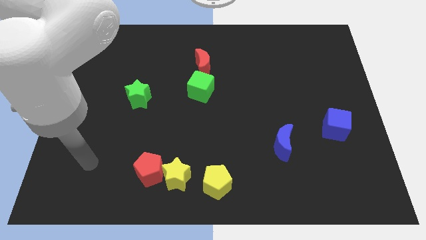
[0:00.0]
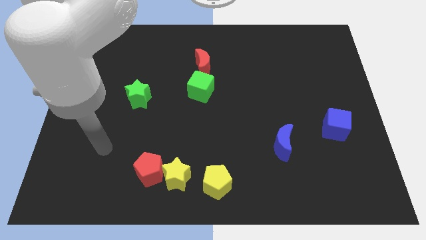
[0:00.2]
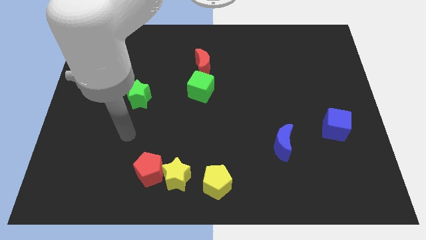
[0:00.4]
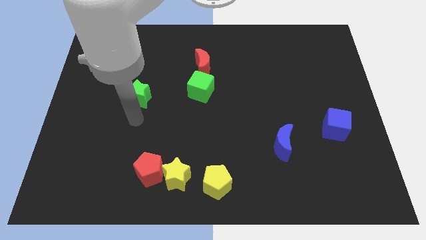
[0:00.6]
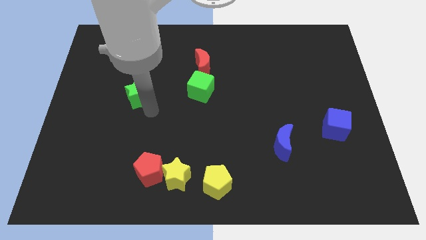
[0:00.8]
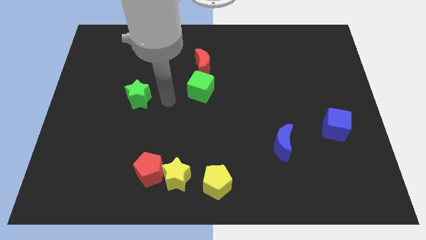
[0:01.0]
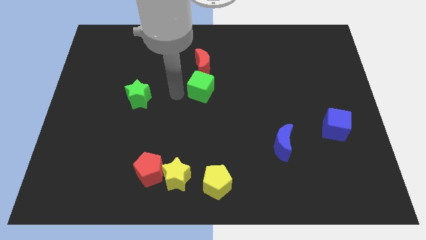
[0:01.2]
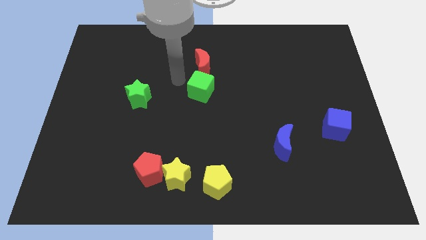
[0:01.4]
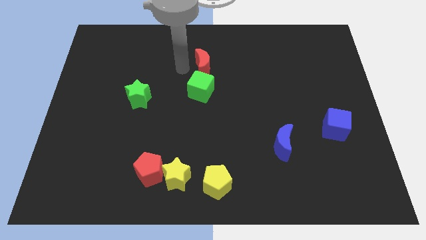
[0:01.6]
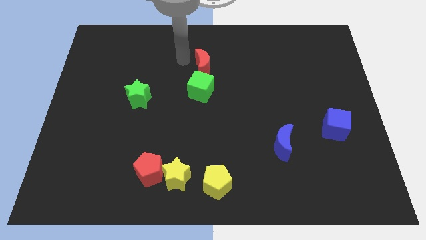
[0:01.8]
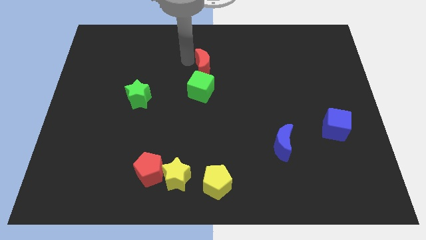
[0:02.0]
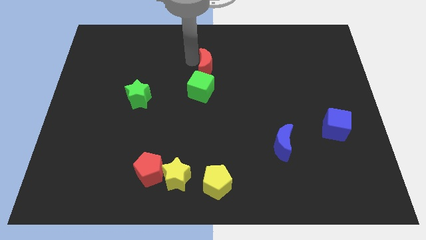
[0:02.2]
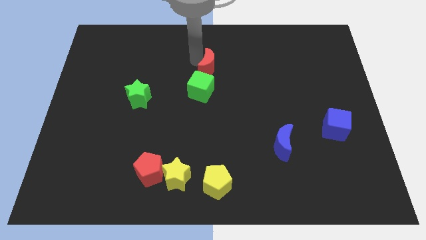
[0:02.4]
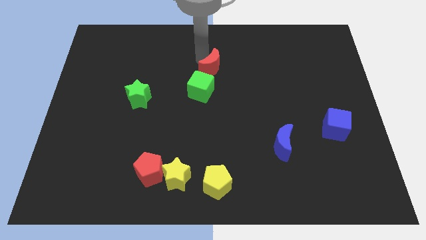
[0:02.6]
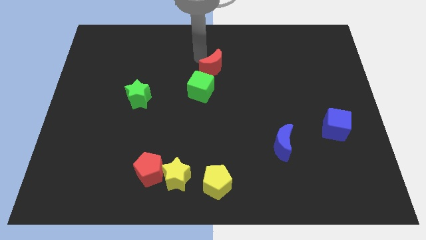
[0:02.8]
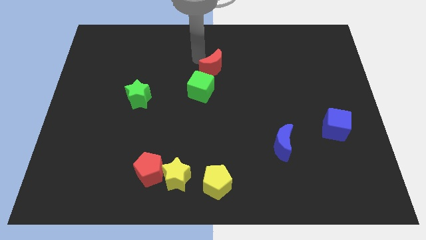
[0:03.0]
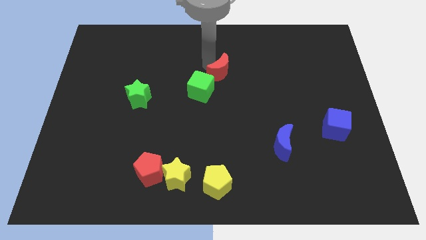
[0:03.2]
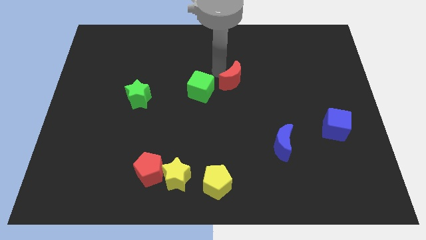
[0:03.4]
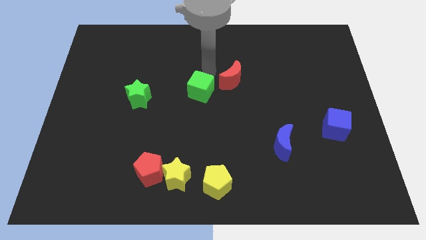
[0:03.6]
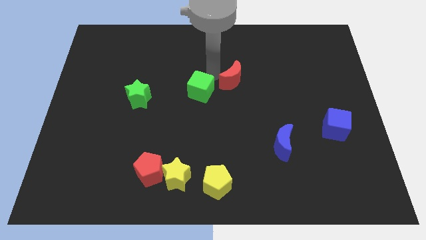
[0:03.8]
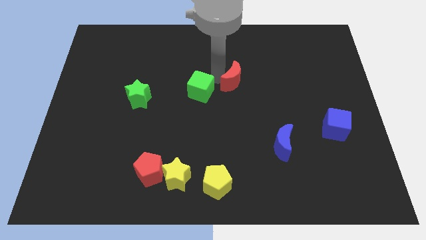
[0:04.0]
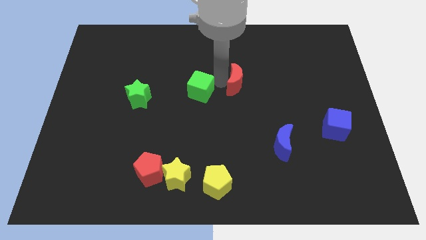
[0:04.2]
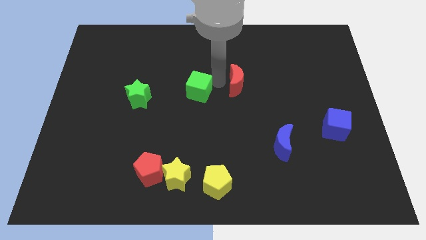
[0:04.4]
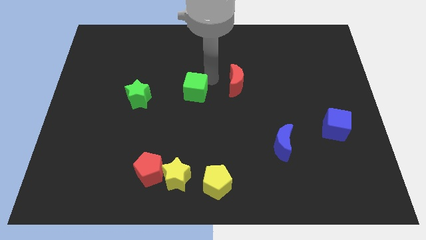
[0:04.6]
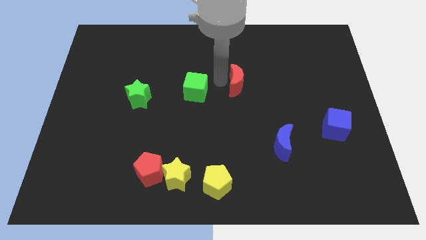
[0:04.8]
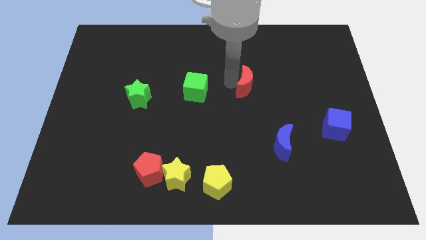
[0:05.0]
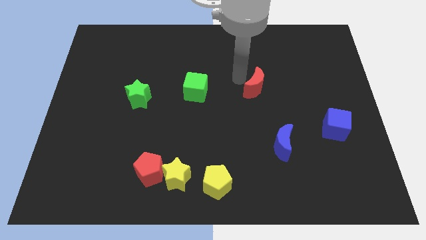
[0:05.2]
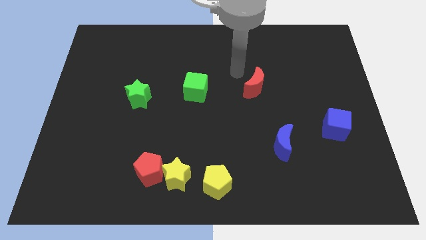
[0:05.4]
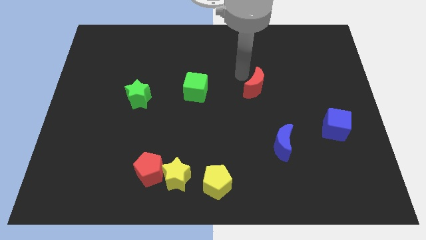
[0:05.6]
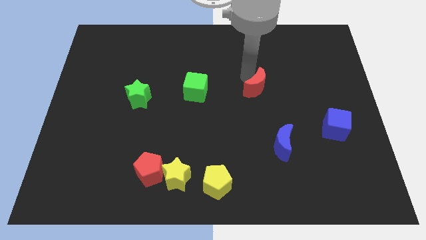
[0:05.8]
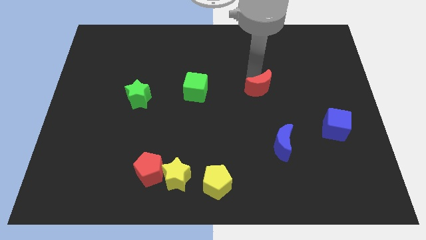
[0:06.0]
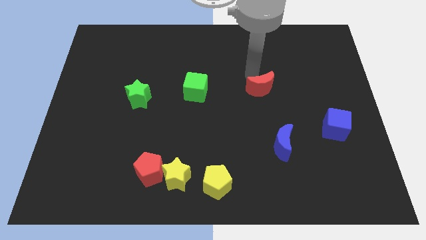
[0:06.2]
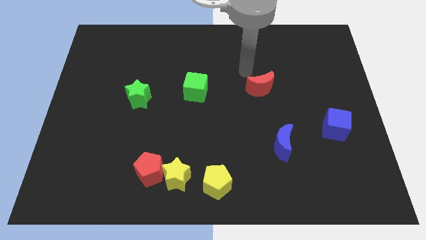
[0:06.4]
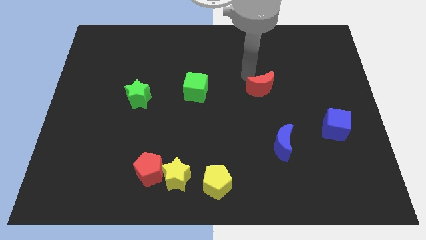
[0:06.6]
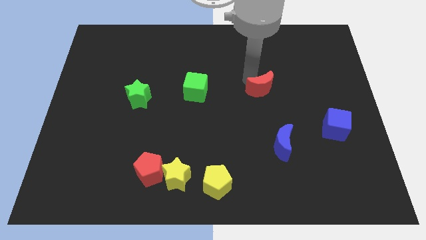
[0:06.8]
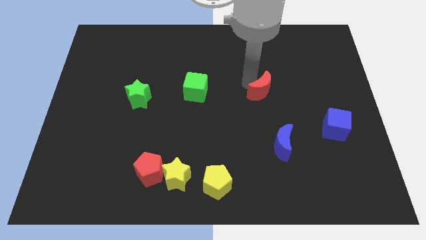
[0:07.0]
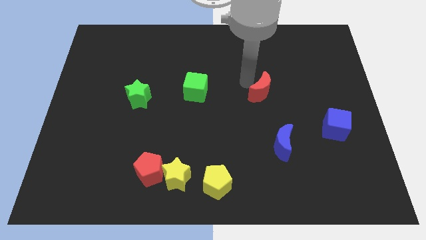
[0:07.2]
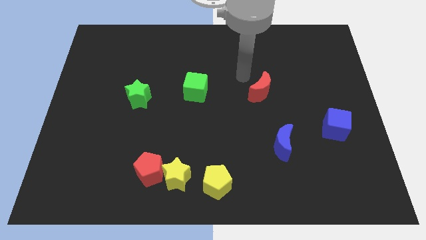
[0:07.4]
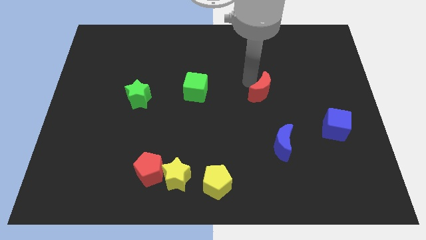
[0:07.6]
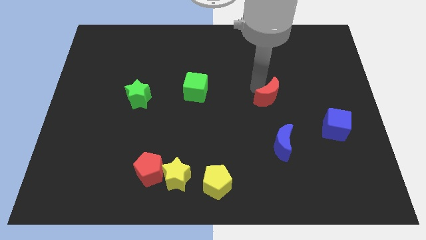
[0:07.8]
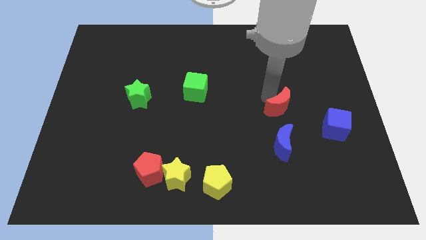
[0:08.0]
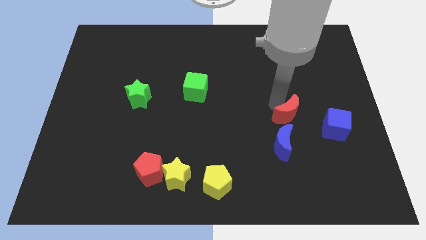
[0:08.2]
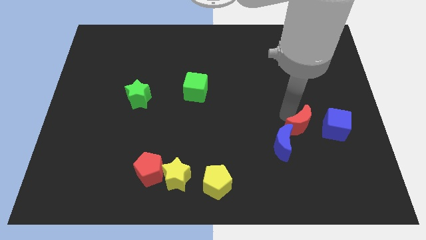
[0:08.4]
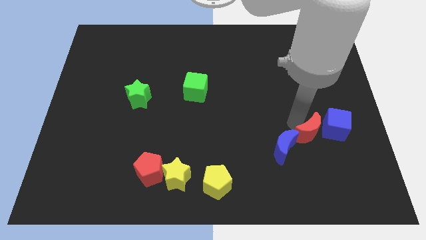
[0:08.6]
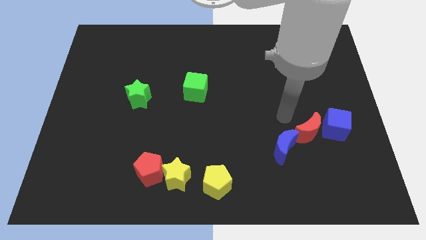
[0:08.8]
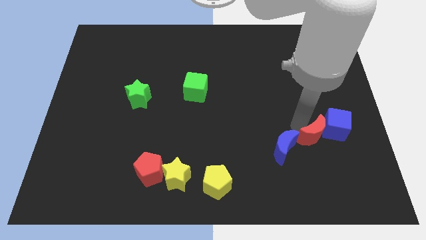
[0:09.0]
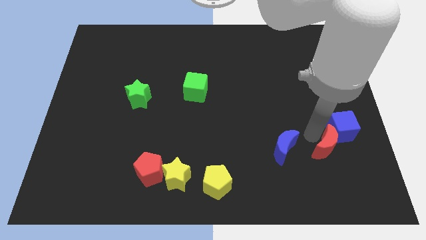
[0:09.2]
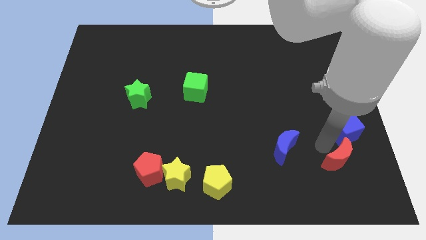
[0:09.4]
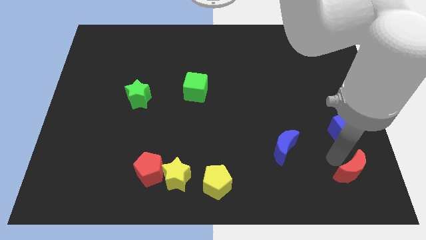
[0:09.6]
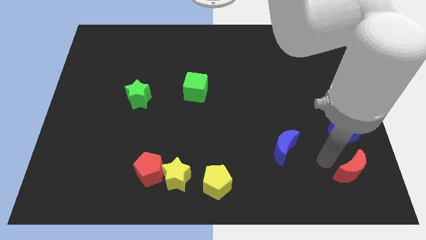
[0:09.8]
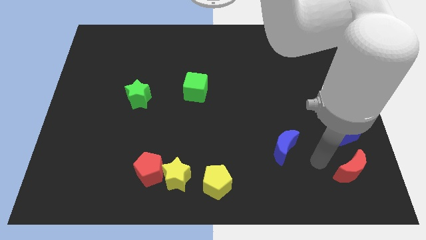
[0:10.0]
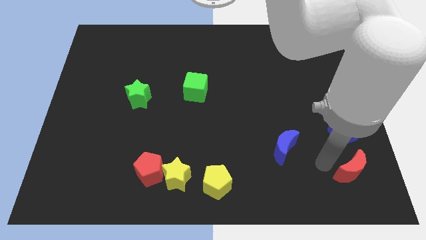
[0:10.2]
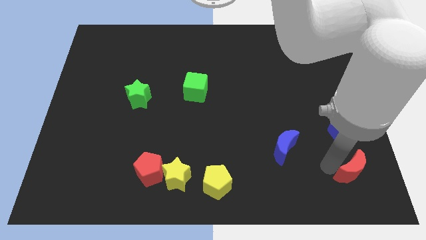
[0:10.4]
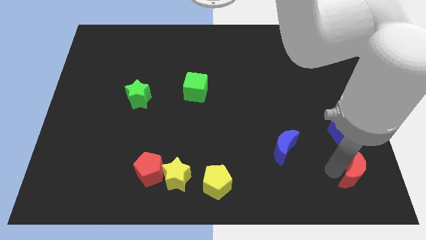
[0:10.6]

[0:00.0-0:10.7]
push the red moon to the bottom right of the board

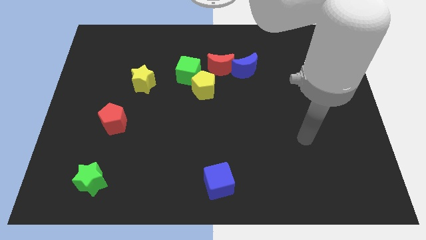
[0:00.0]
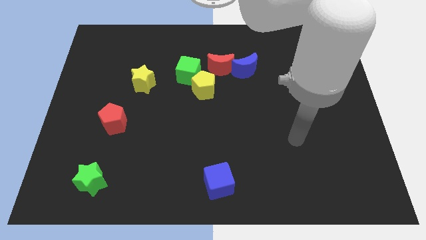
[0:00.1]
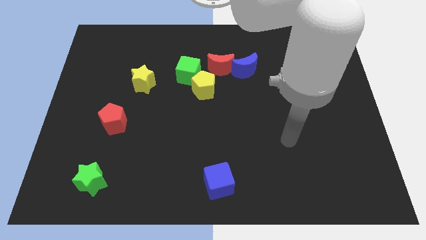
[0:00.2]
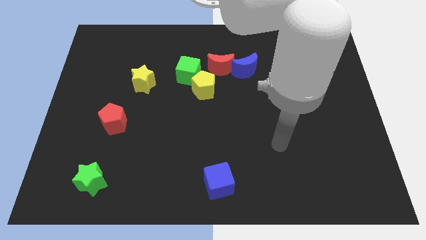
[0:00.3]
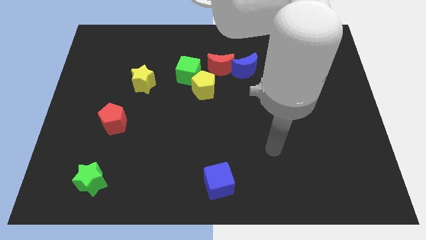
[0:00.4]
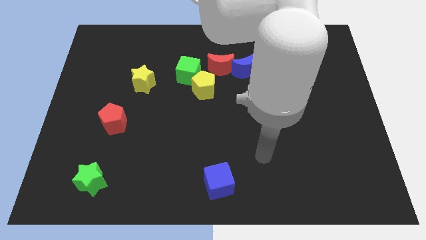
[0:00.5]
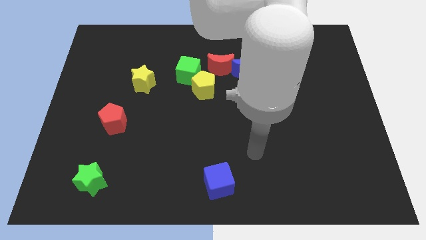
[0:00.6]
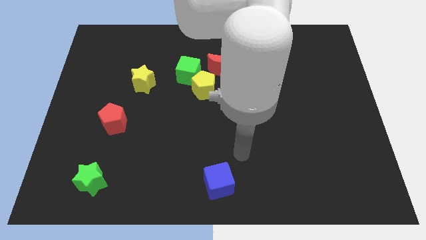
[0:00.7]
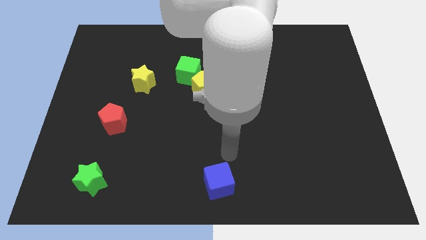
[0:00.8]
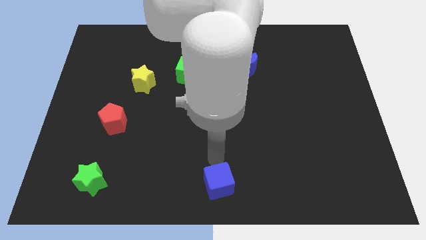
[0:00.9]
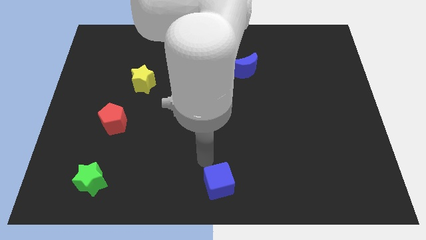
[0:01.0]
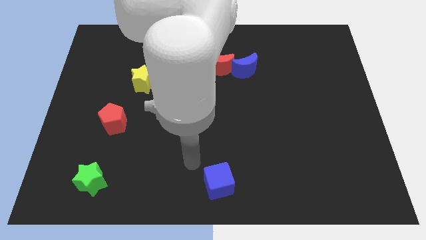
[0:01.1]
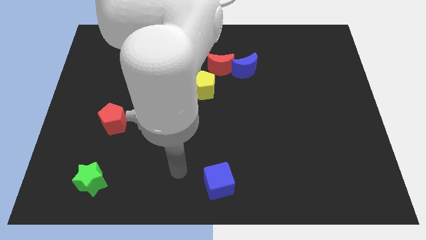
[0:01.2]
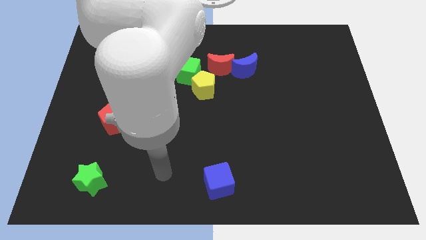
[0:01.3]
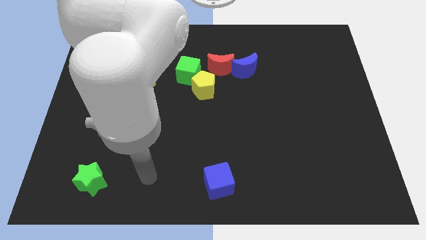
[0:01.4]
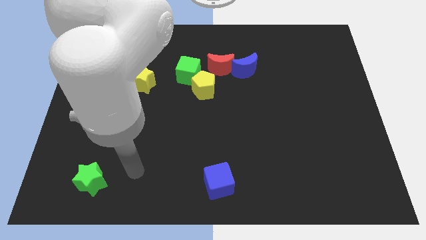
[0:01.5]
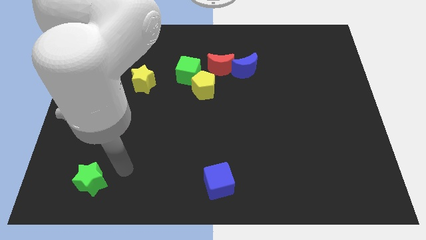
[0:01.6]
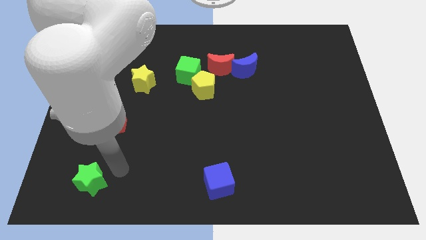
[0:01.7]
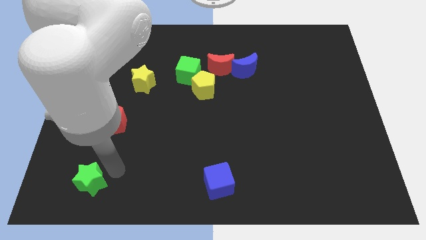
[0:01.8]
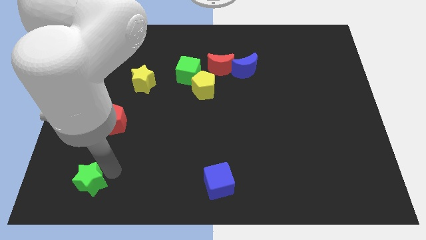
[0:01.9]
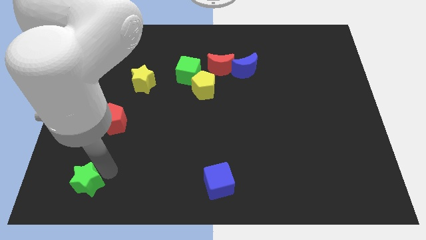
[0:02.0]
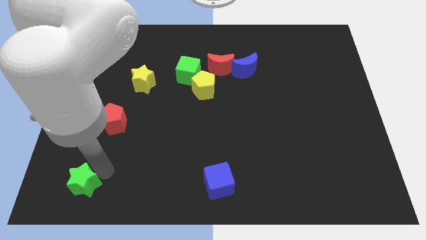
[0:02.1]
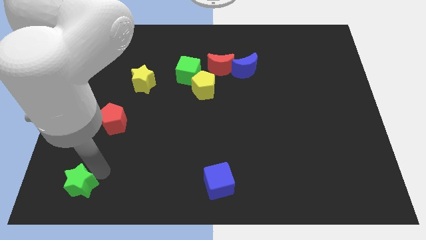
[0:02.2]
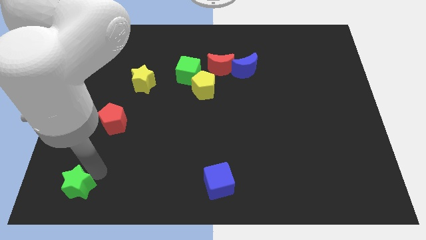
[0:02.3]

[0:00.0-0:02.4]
slide the green star to the lower left corner
